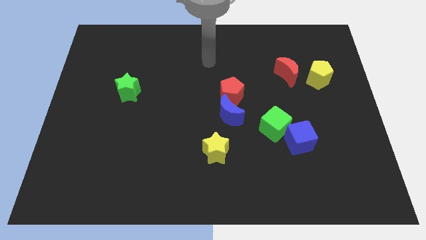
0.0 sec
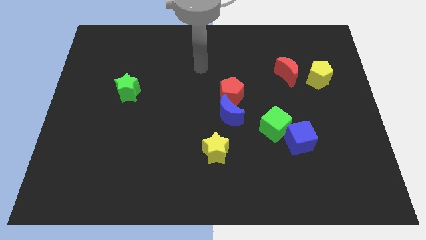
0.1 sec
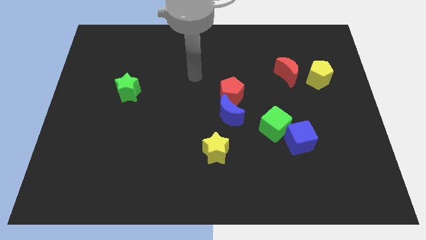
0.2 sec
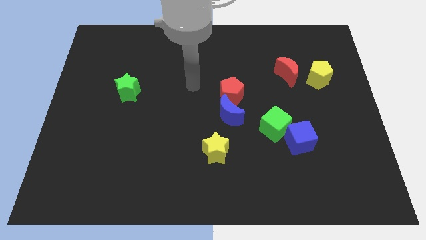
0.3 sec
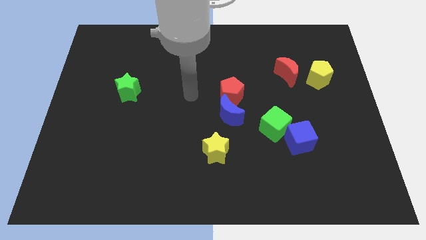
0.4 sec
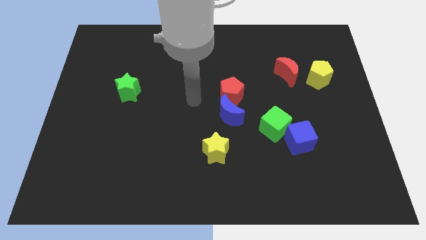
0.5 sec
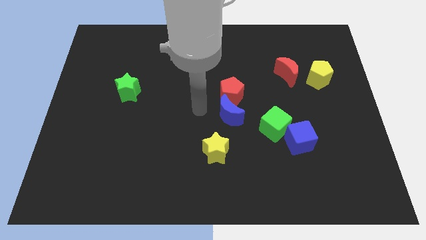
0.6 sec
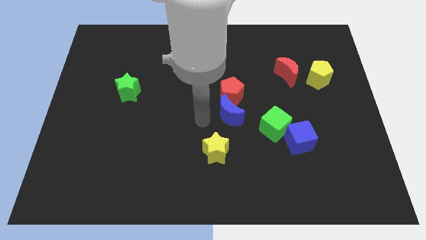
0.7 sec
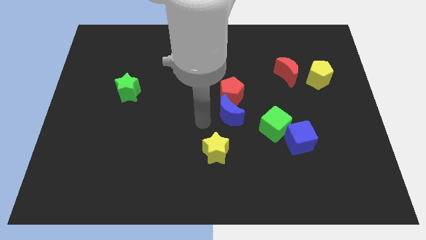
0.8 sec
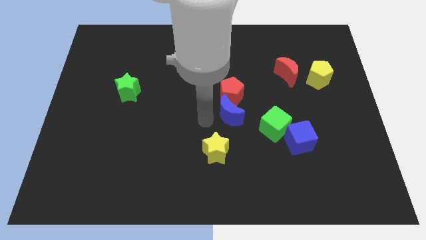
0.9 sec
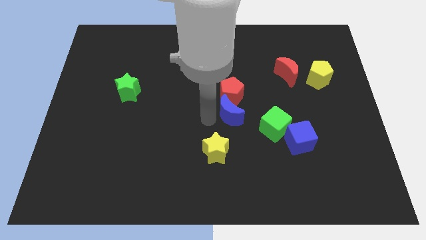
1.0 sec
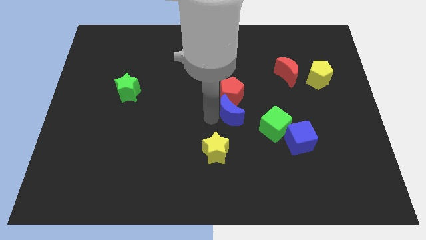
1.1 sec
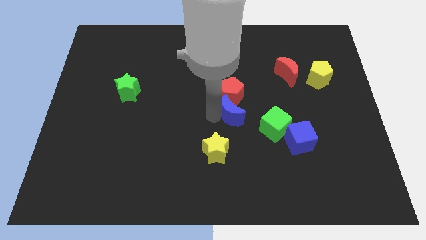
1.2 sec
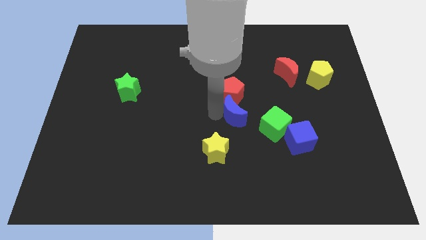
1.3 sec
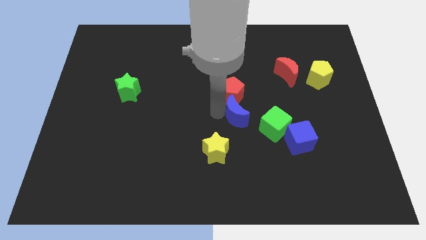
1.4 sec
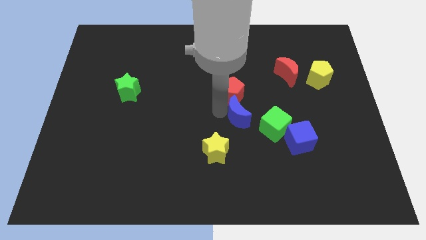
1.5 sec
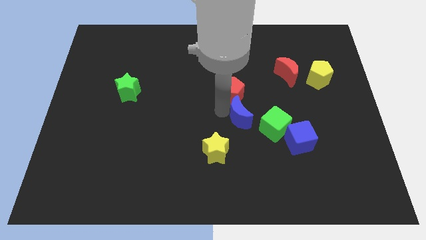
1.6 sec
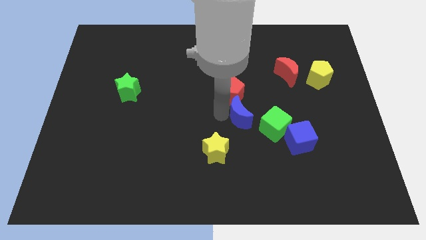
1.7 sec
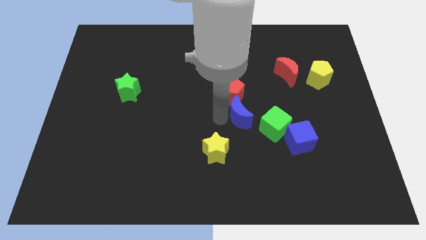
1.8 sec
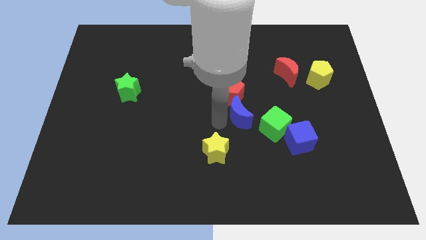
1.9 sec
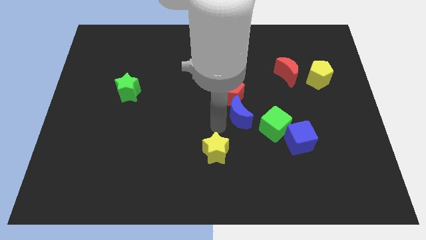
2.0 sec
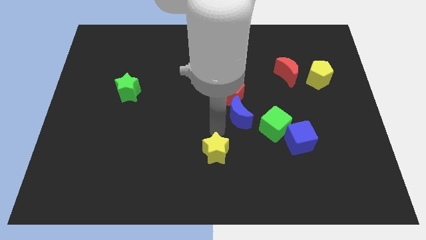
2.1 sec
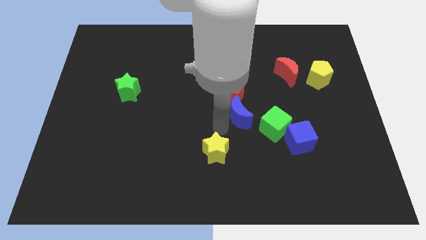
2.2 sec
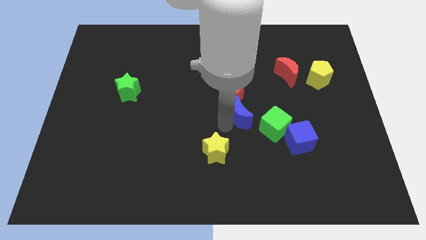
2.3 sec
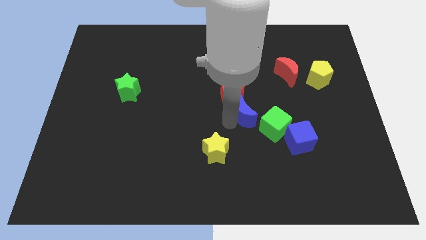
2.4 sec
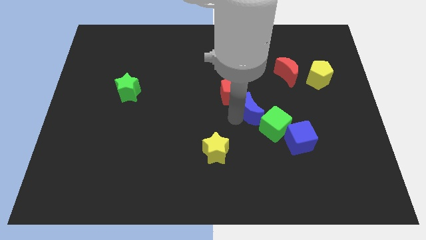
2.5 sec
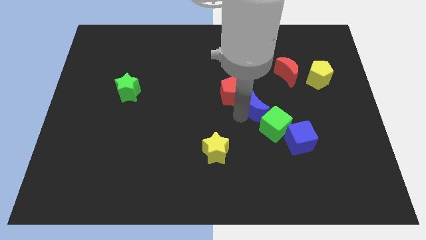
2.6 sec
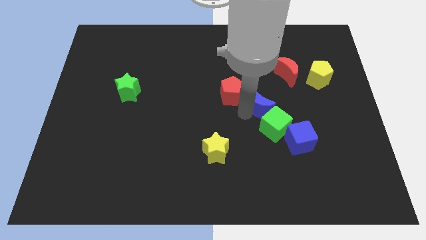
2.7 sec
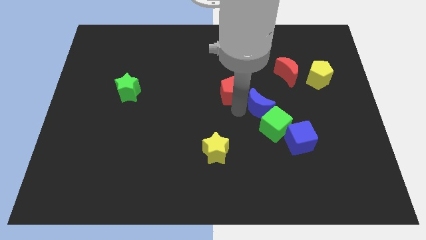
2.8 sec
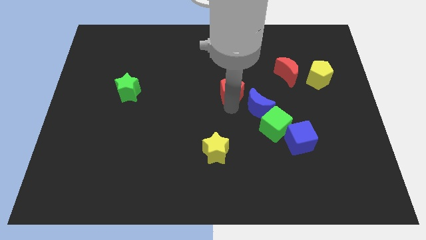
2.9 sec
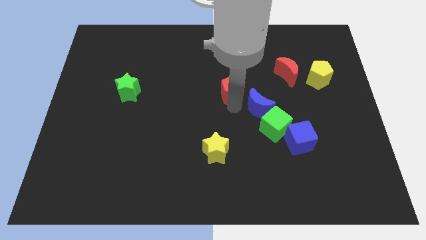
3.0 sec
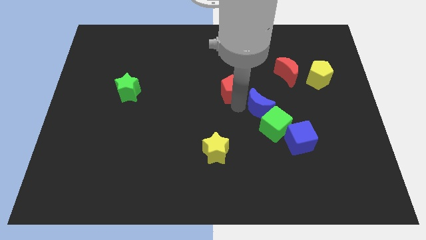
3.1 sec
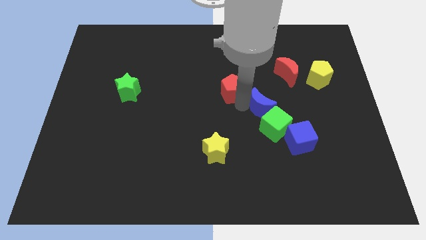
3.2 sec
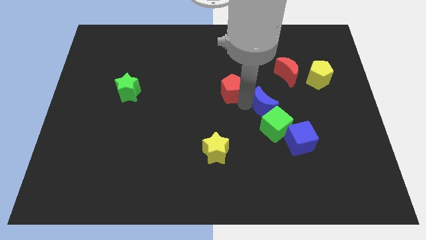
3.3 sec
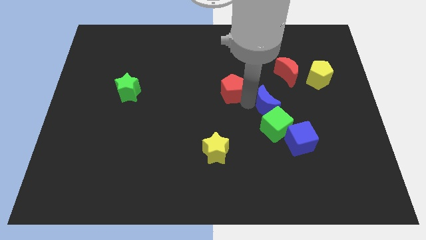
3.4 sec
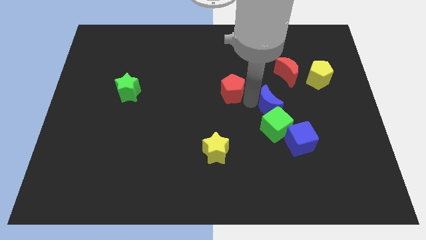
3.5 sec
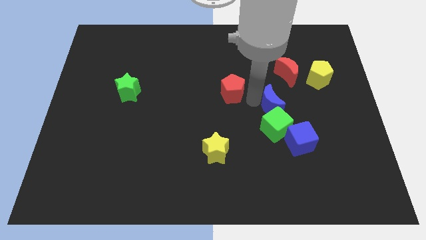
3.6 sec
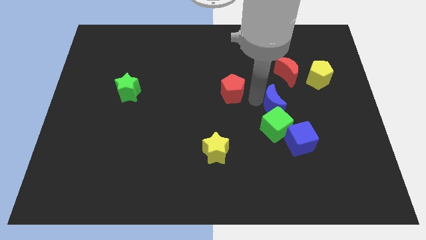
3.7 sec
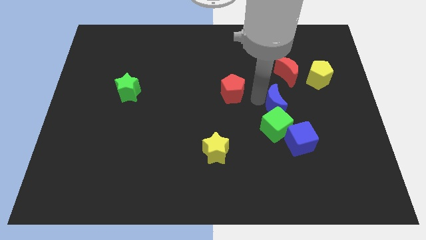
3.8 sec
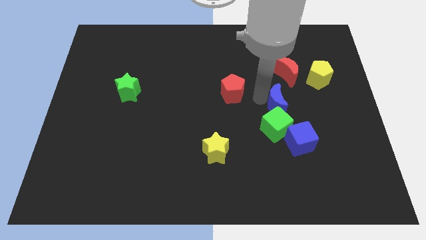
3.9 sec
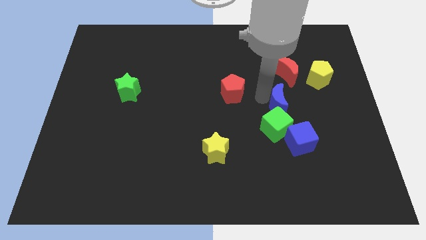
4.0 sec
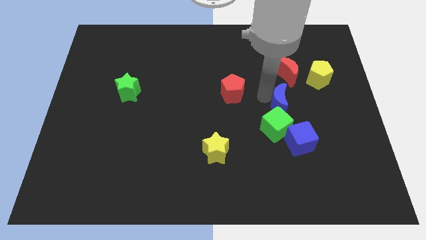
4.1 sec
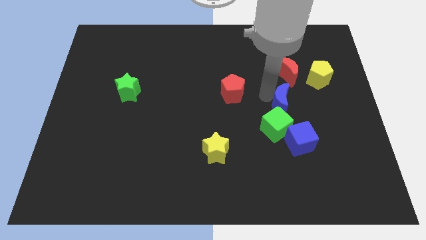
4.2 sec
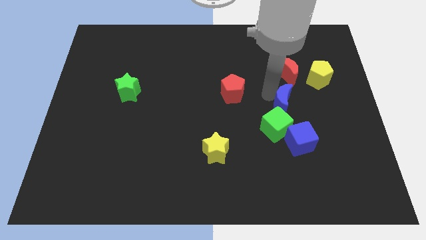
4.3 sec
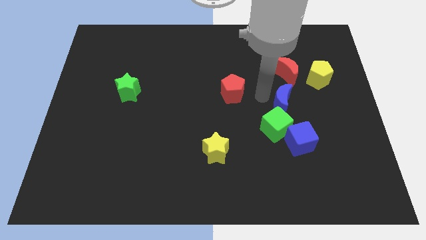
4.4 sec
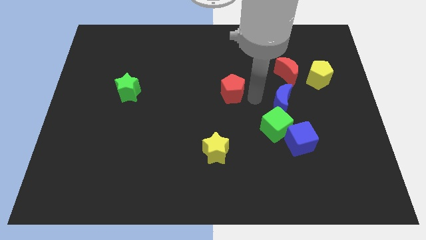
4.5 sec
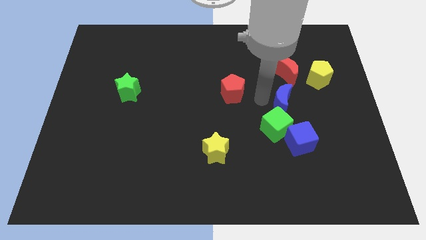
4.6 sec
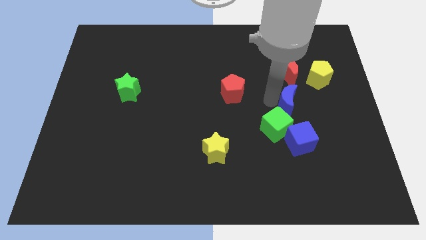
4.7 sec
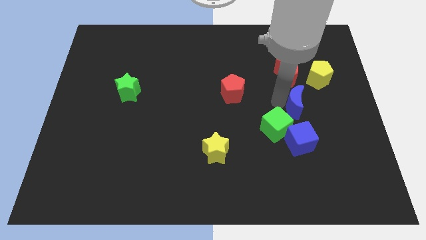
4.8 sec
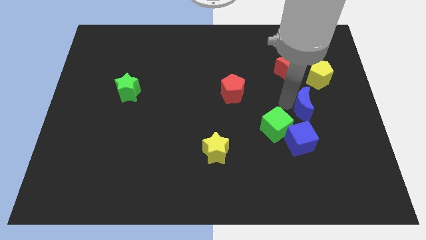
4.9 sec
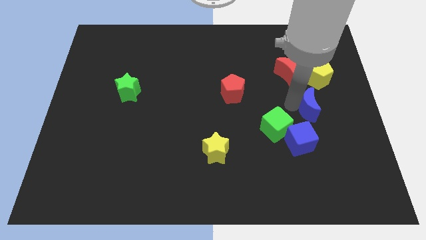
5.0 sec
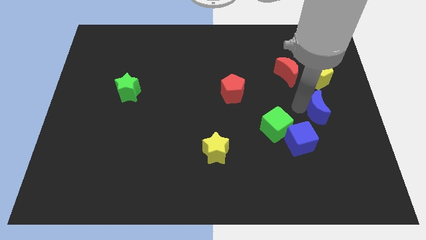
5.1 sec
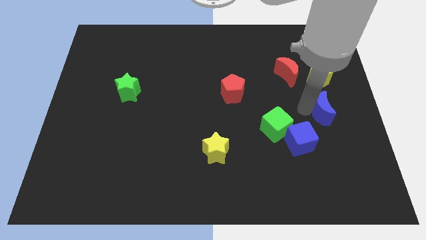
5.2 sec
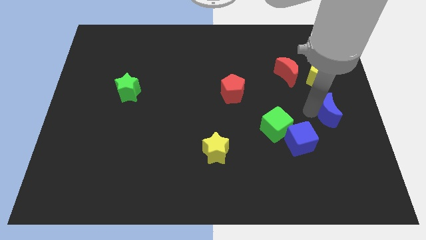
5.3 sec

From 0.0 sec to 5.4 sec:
push the blue moon to the right side of the board

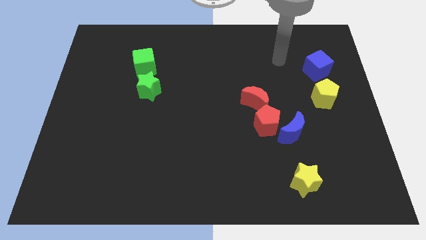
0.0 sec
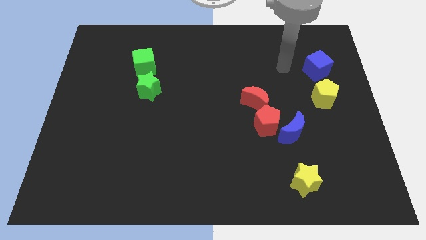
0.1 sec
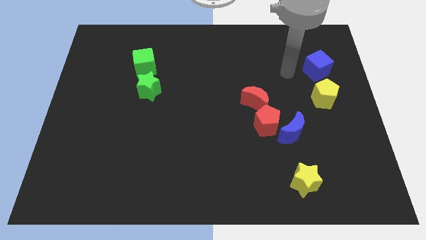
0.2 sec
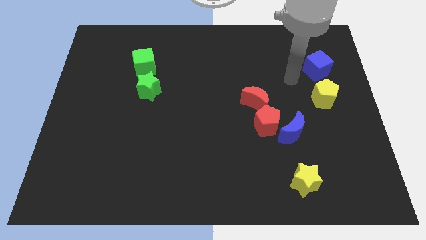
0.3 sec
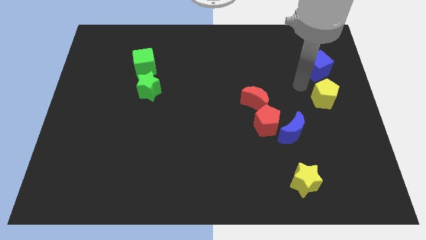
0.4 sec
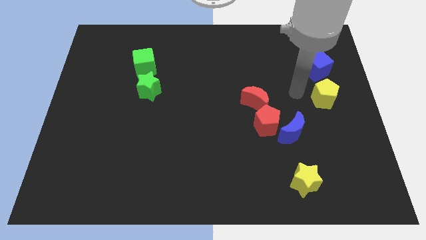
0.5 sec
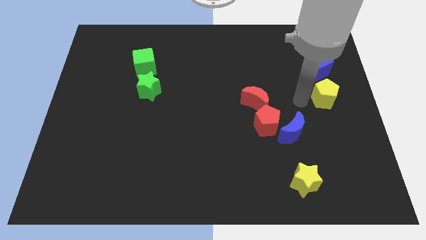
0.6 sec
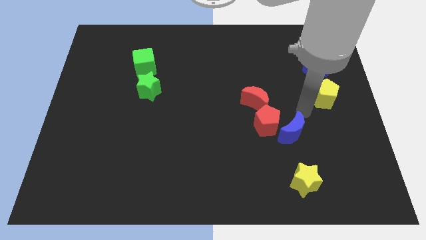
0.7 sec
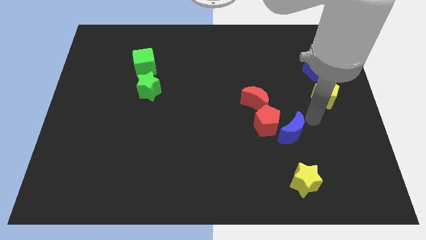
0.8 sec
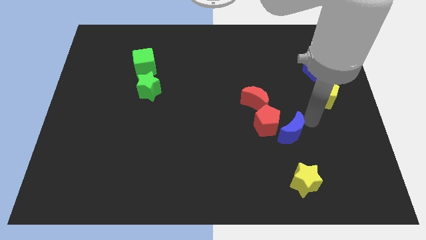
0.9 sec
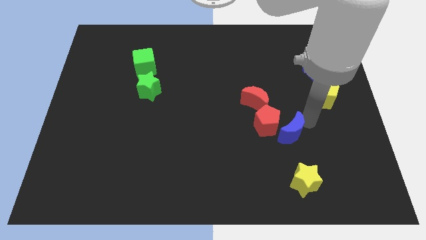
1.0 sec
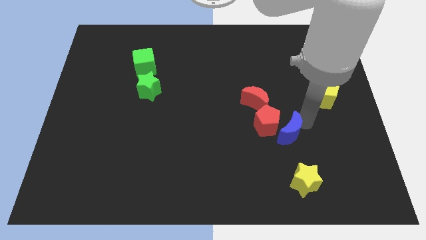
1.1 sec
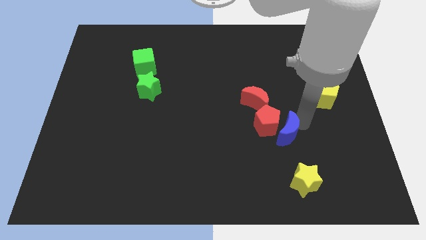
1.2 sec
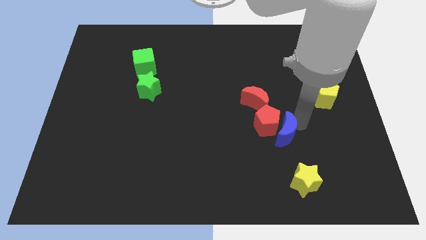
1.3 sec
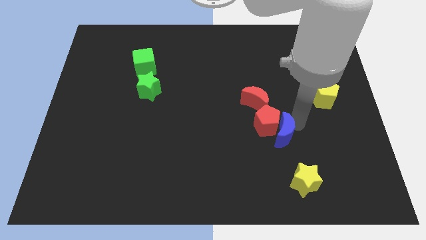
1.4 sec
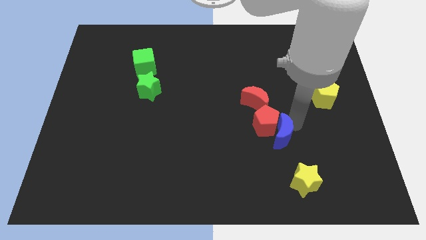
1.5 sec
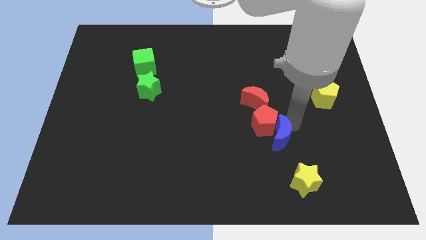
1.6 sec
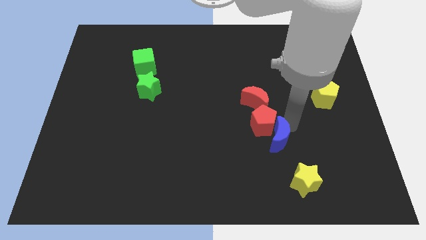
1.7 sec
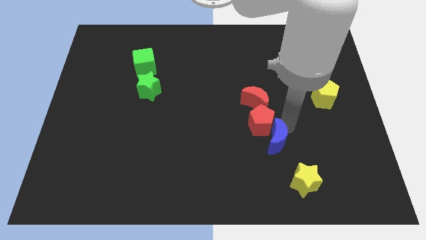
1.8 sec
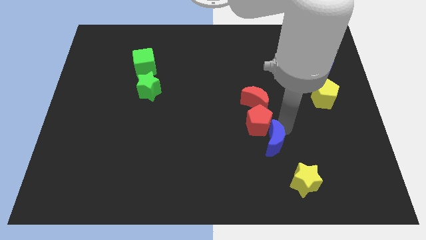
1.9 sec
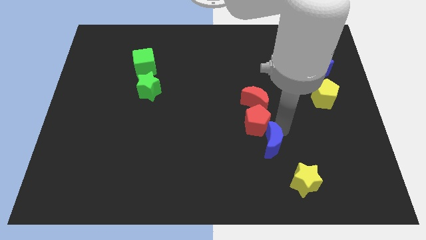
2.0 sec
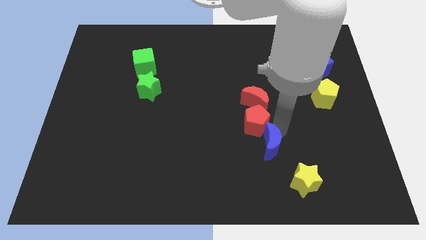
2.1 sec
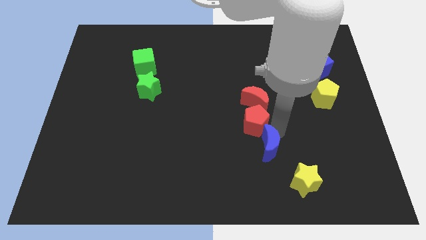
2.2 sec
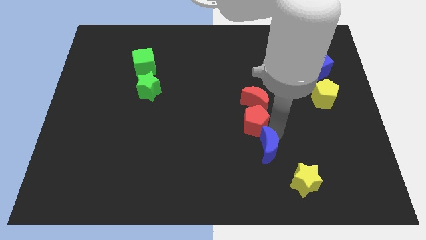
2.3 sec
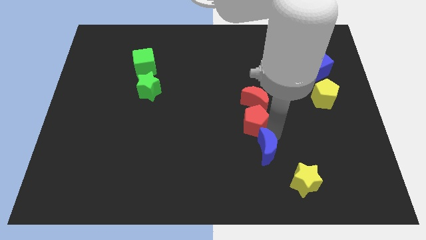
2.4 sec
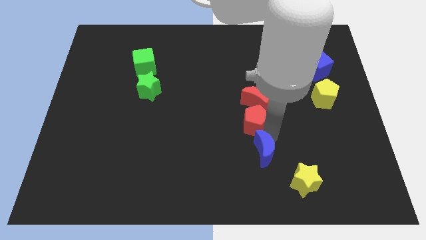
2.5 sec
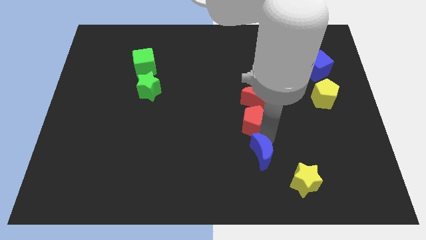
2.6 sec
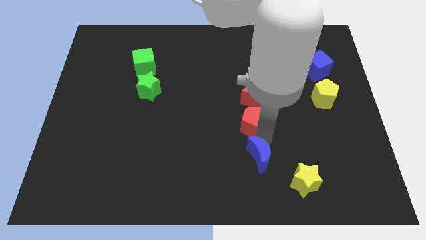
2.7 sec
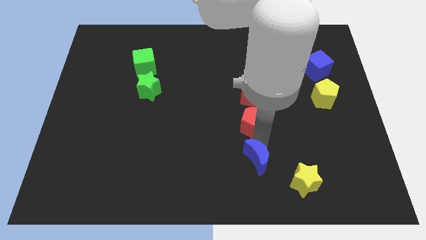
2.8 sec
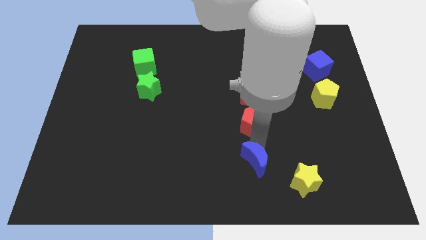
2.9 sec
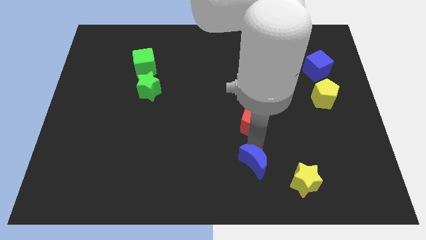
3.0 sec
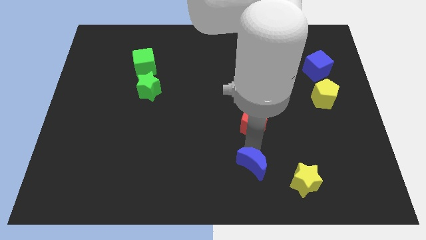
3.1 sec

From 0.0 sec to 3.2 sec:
move the blue moon to the bottom
